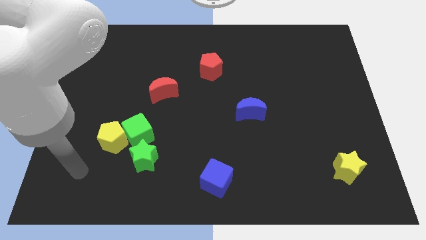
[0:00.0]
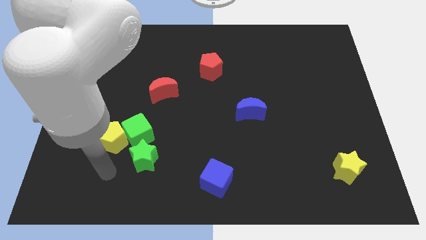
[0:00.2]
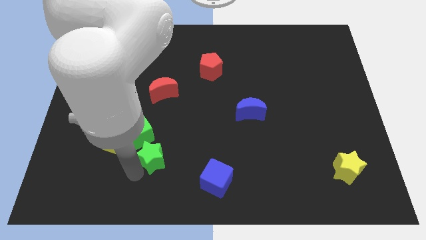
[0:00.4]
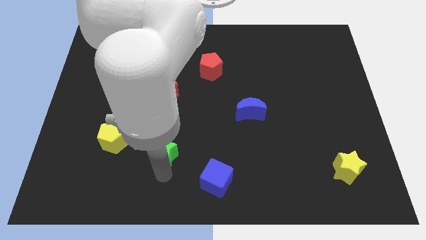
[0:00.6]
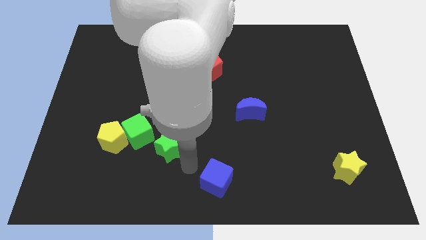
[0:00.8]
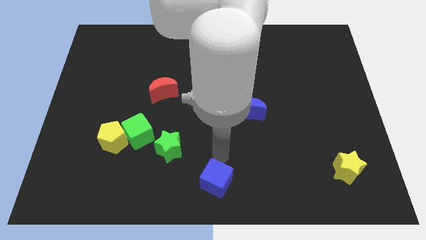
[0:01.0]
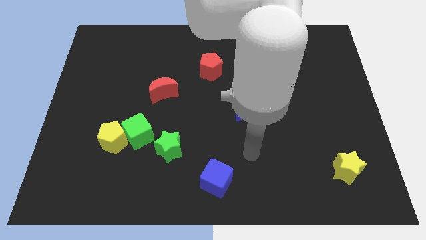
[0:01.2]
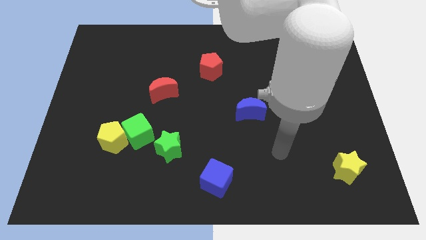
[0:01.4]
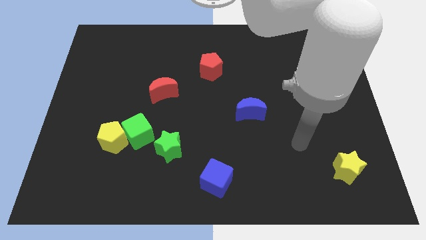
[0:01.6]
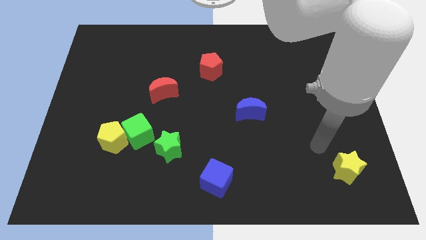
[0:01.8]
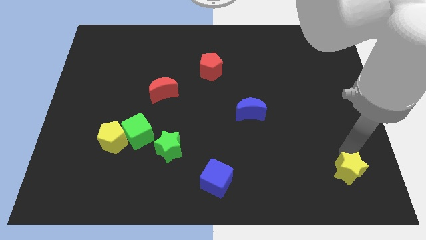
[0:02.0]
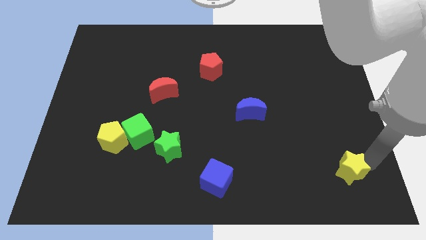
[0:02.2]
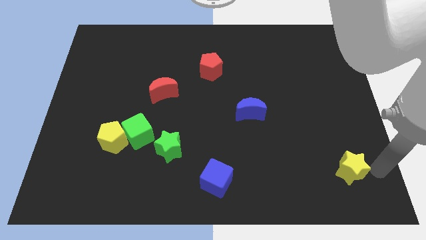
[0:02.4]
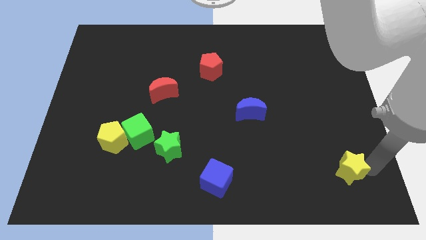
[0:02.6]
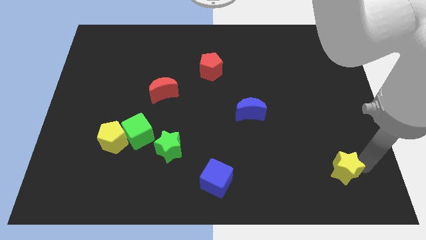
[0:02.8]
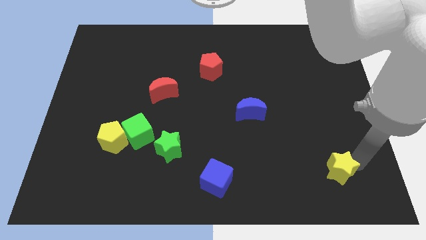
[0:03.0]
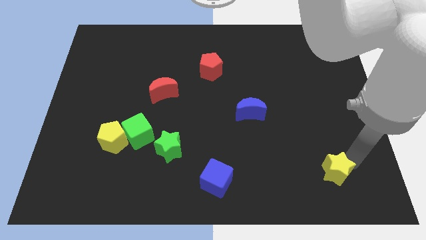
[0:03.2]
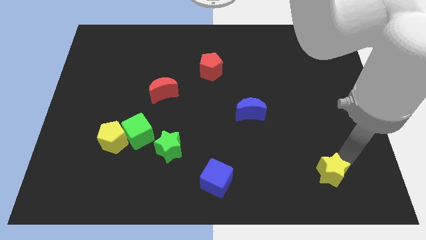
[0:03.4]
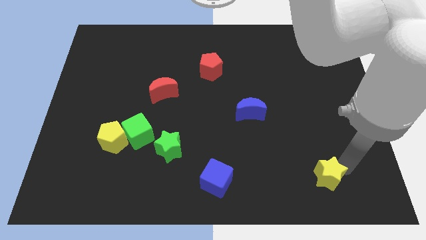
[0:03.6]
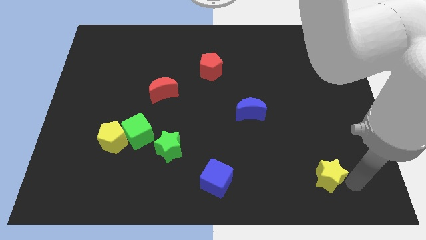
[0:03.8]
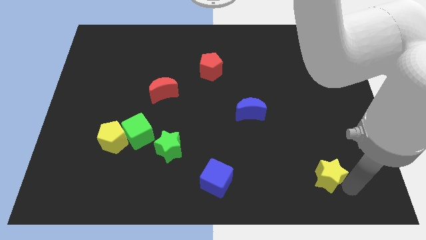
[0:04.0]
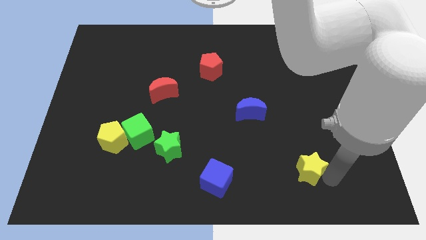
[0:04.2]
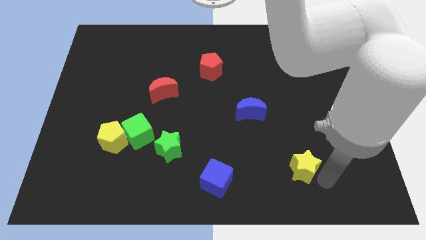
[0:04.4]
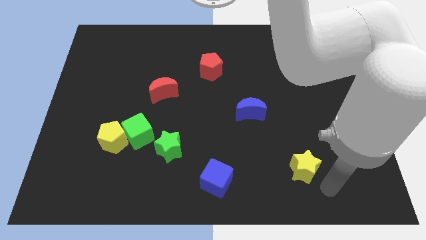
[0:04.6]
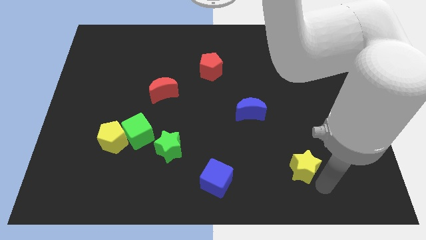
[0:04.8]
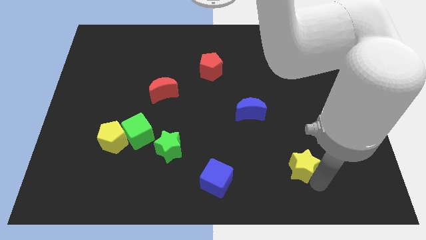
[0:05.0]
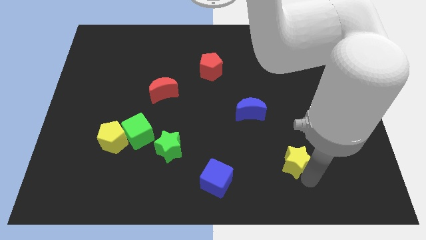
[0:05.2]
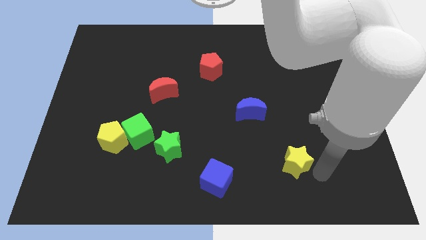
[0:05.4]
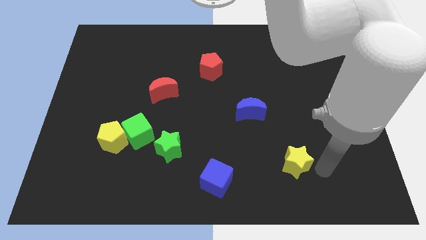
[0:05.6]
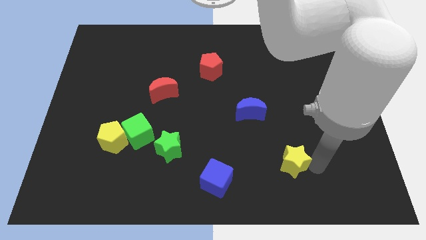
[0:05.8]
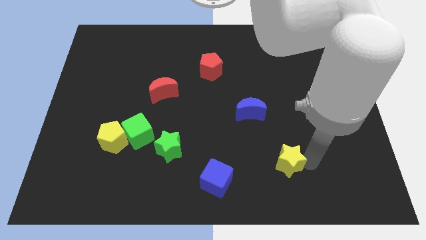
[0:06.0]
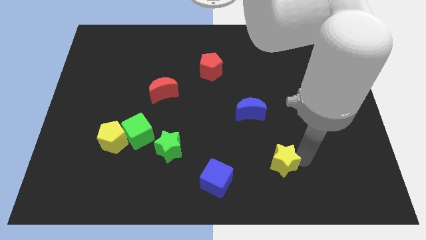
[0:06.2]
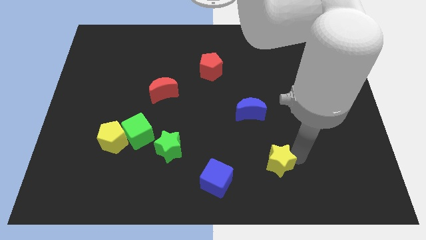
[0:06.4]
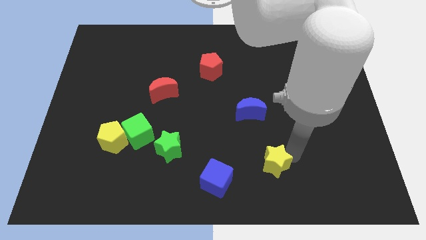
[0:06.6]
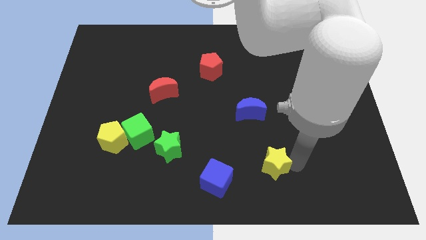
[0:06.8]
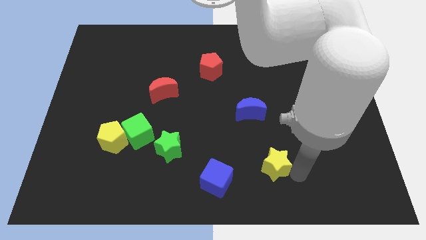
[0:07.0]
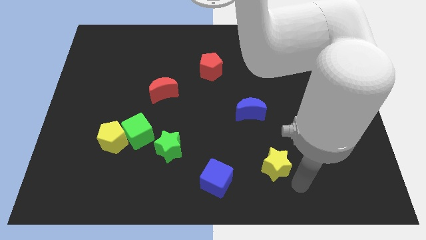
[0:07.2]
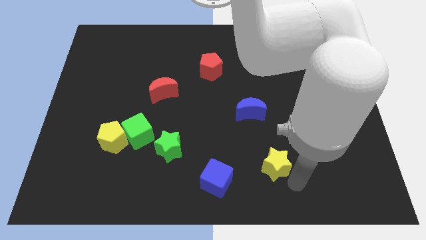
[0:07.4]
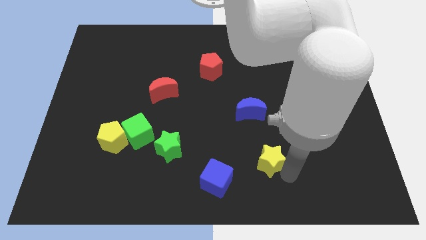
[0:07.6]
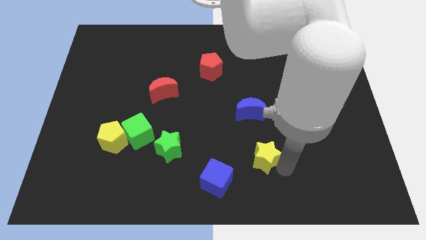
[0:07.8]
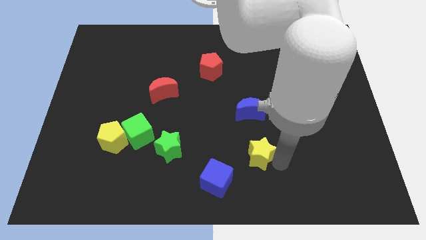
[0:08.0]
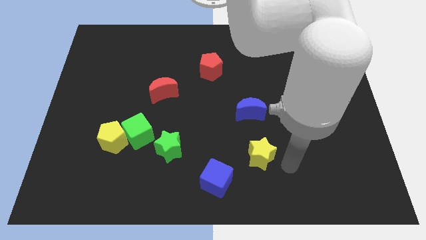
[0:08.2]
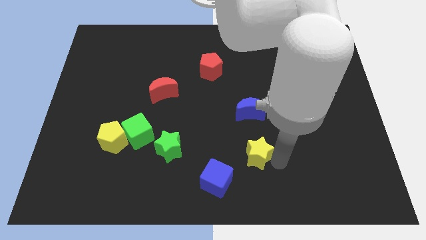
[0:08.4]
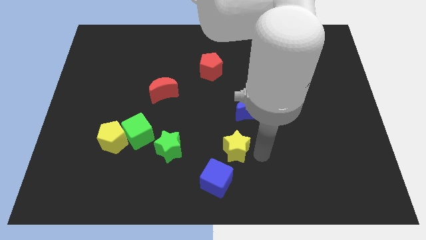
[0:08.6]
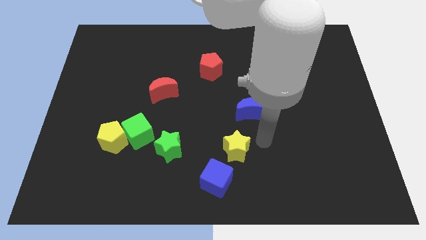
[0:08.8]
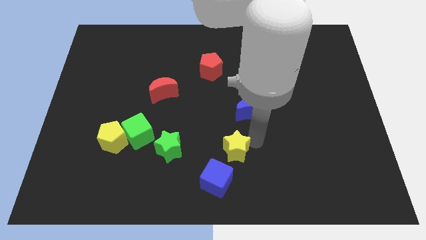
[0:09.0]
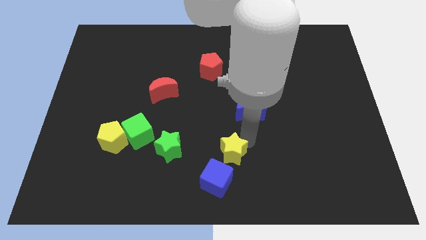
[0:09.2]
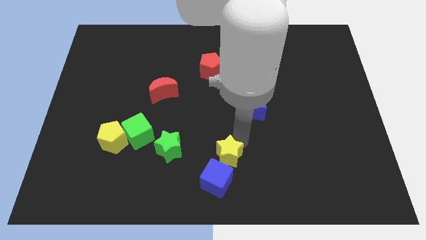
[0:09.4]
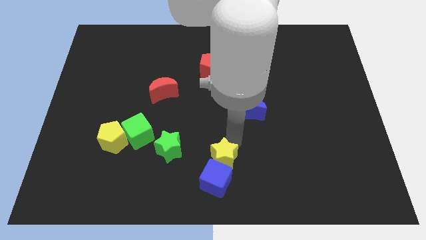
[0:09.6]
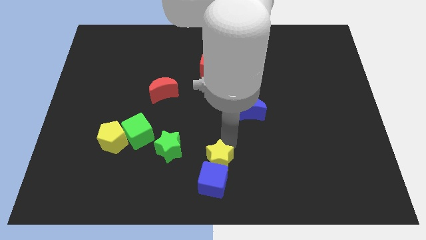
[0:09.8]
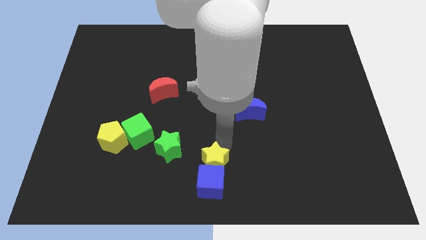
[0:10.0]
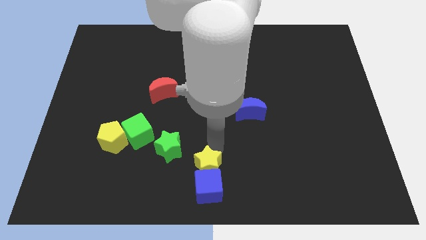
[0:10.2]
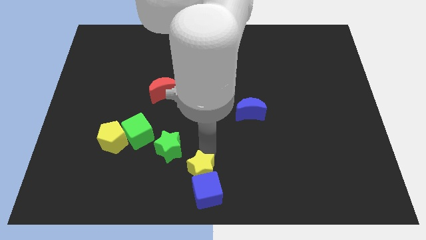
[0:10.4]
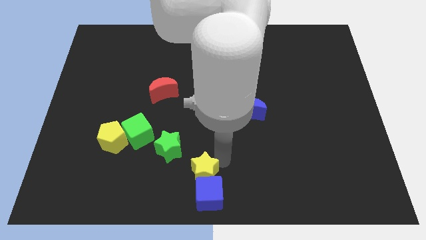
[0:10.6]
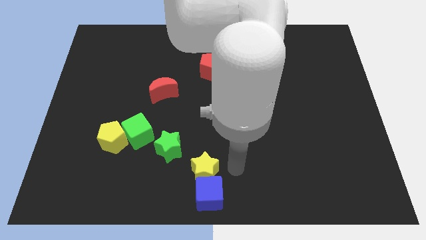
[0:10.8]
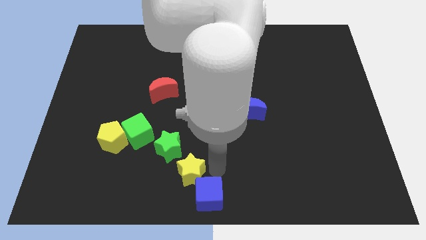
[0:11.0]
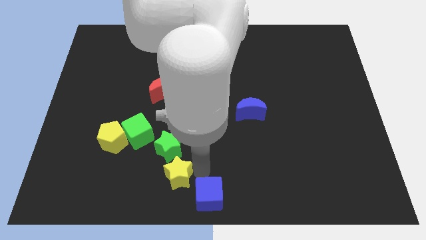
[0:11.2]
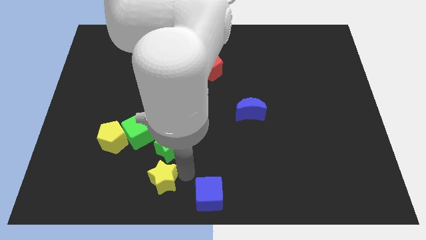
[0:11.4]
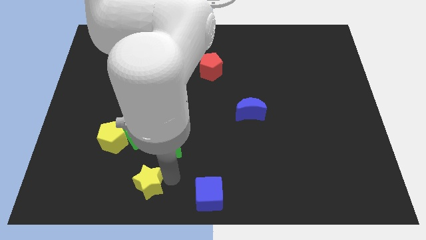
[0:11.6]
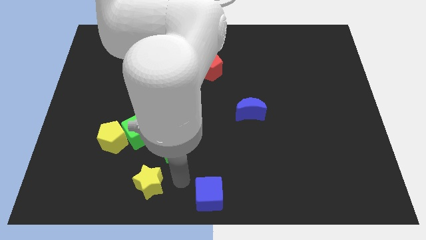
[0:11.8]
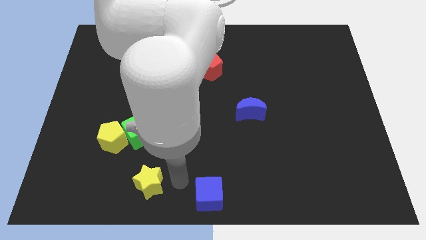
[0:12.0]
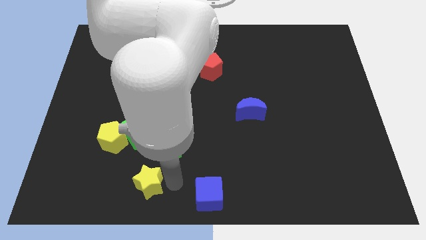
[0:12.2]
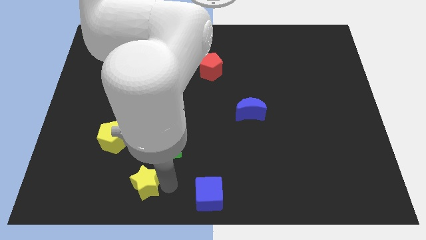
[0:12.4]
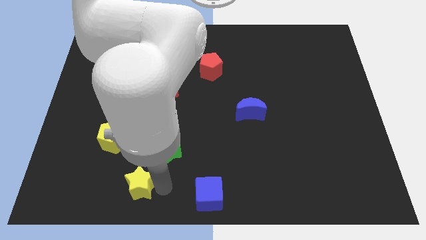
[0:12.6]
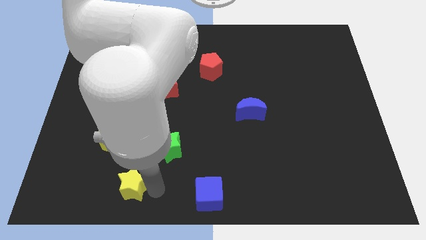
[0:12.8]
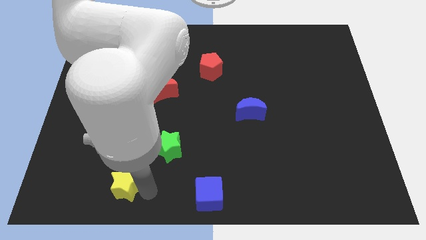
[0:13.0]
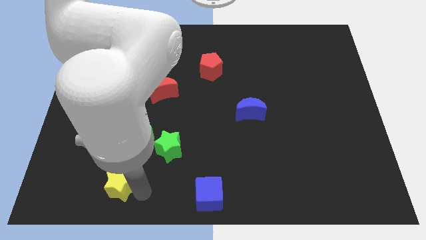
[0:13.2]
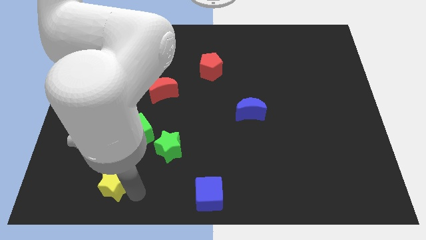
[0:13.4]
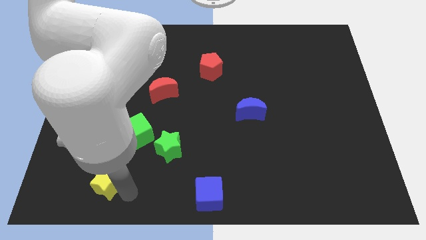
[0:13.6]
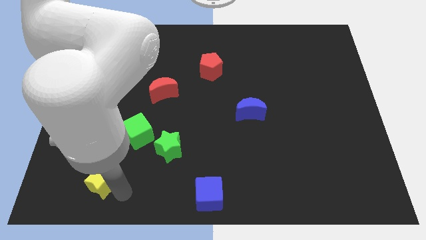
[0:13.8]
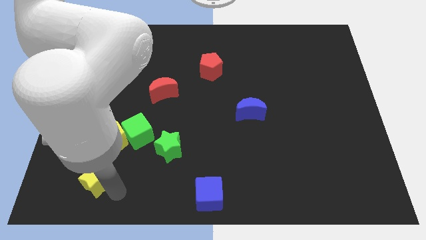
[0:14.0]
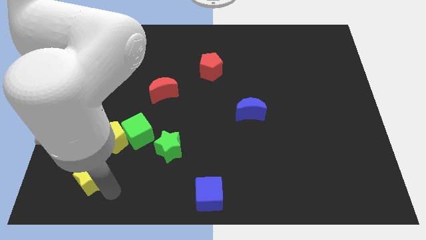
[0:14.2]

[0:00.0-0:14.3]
slide the yellow star diagonally down and to the left of the yellow pentagon

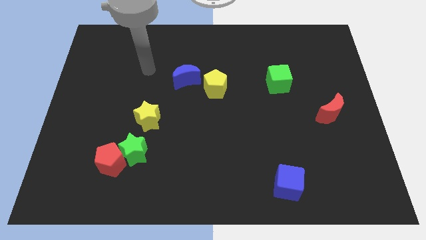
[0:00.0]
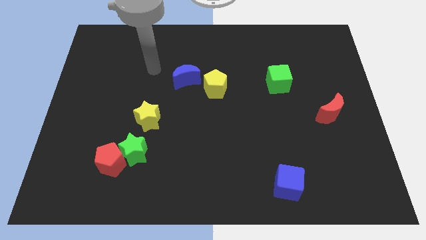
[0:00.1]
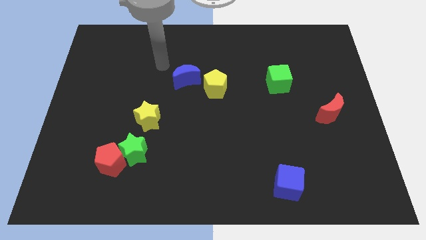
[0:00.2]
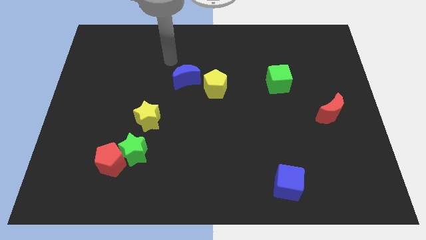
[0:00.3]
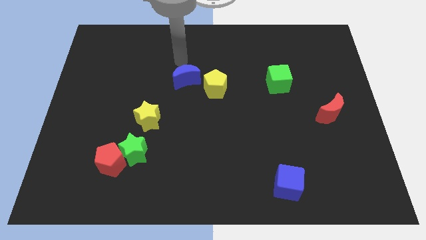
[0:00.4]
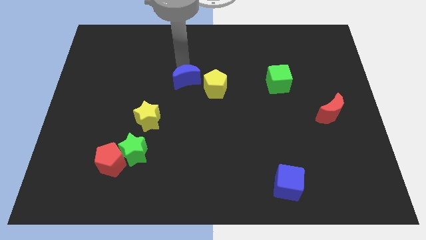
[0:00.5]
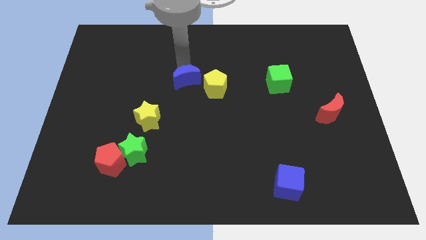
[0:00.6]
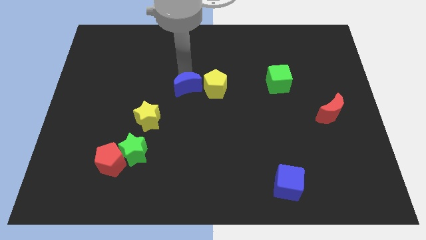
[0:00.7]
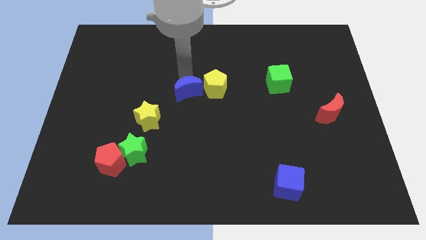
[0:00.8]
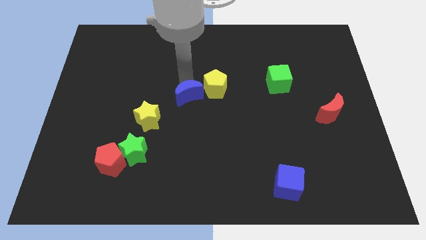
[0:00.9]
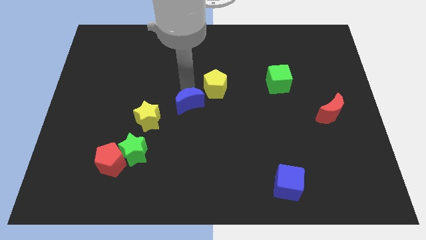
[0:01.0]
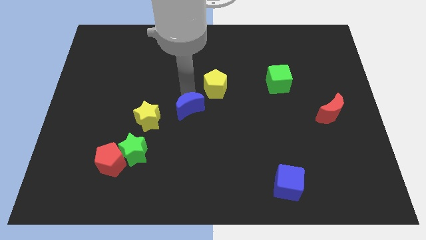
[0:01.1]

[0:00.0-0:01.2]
put the blue moon to the right of the yellow star
